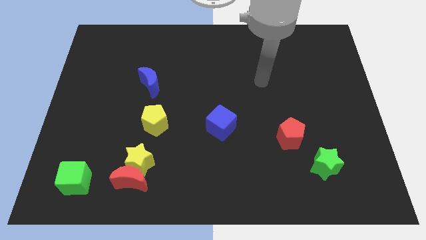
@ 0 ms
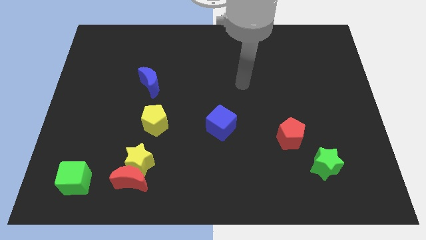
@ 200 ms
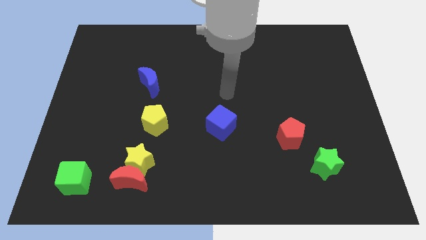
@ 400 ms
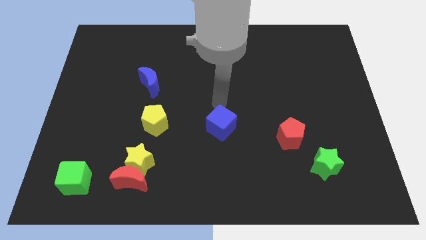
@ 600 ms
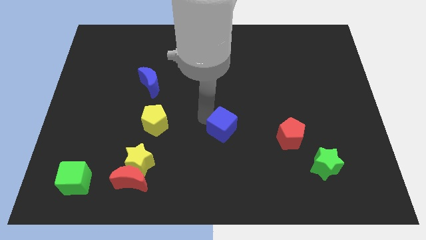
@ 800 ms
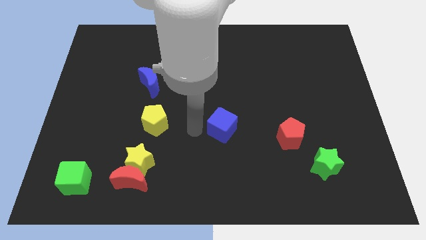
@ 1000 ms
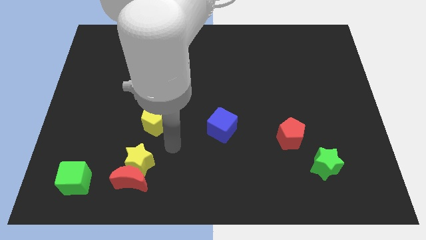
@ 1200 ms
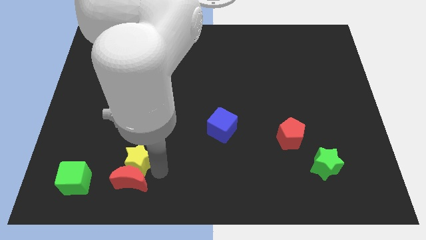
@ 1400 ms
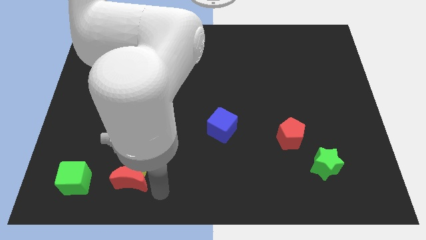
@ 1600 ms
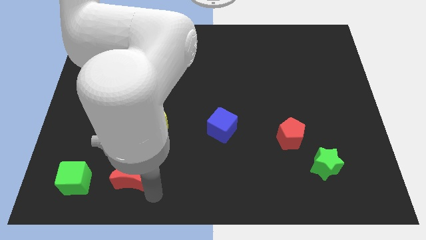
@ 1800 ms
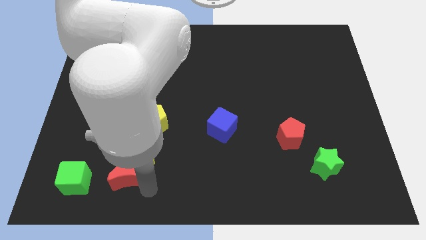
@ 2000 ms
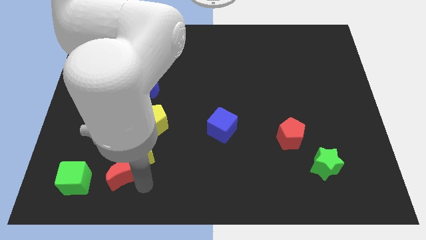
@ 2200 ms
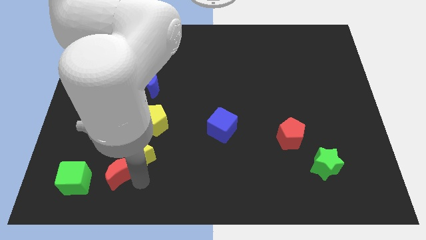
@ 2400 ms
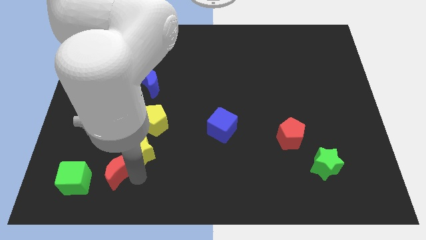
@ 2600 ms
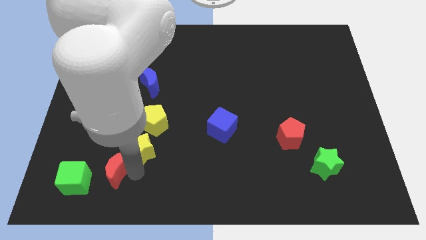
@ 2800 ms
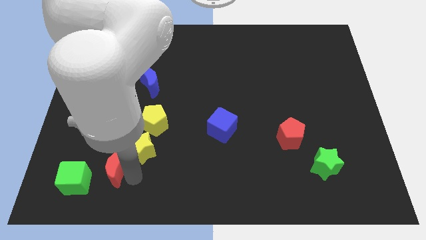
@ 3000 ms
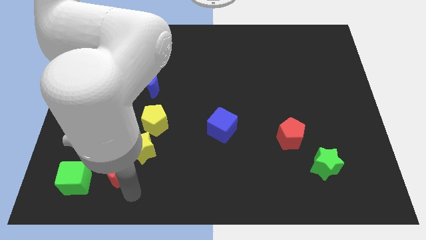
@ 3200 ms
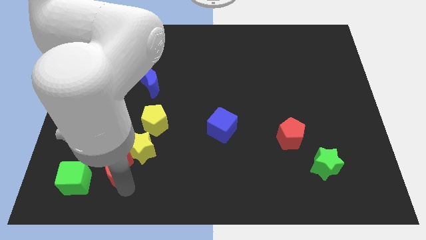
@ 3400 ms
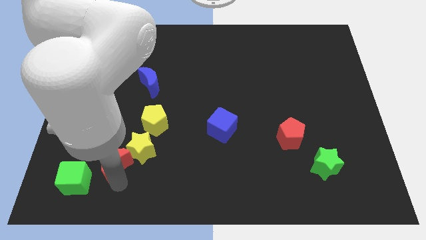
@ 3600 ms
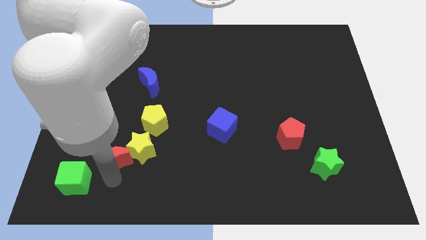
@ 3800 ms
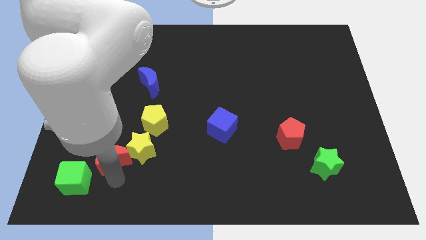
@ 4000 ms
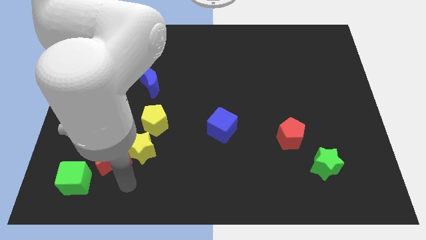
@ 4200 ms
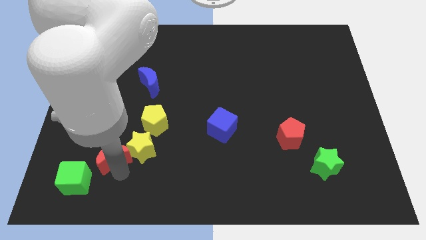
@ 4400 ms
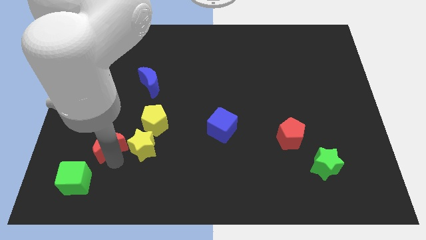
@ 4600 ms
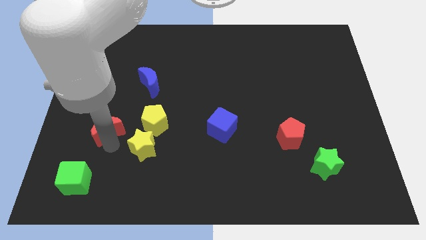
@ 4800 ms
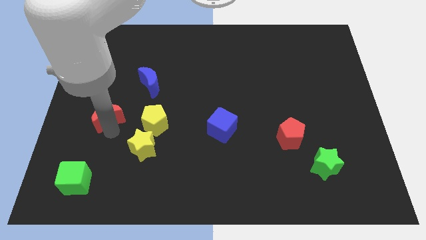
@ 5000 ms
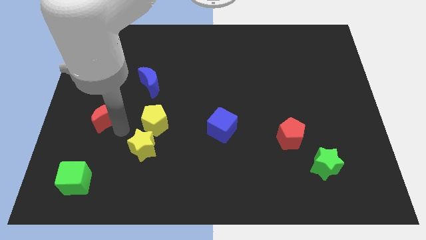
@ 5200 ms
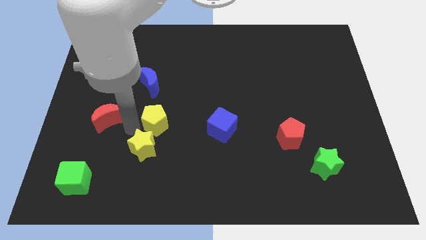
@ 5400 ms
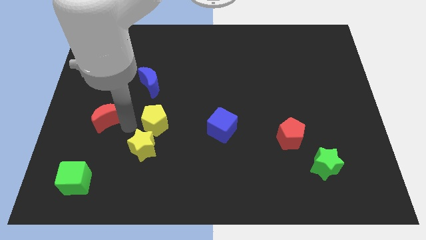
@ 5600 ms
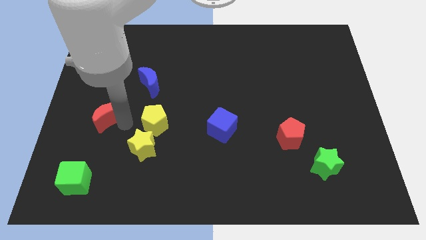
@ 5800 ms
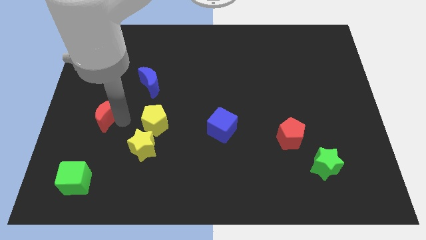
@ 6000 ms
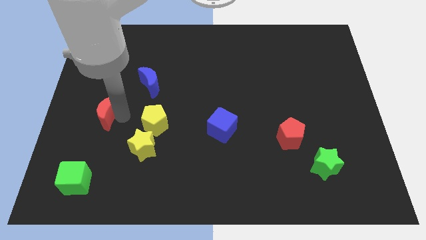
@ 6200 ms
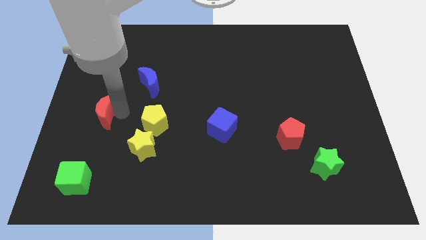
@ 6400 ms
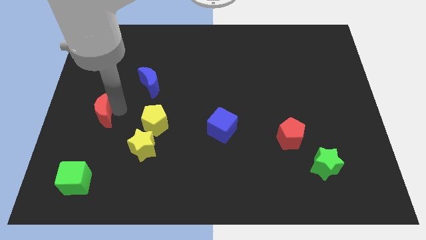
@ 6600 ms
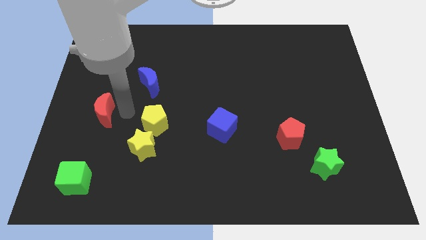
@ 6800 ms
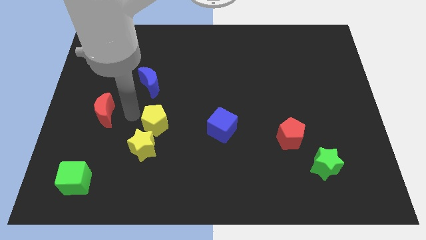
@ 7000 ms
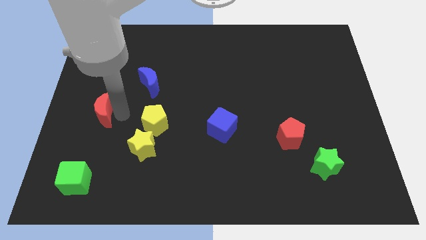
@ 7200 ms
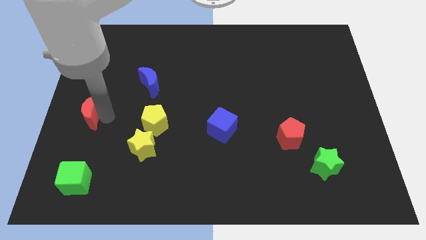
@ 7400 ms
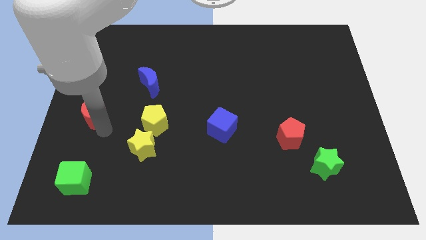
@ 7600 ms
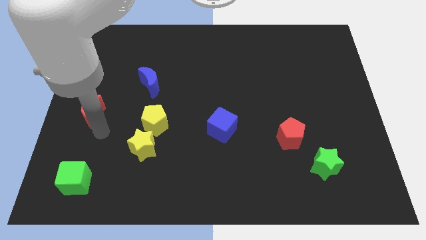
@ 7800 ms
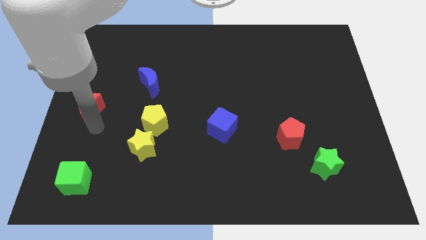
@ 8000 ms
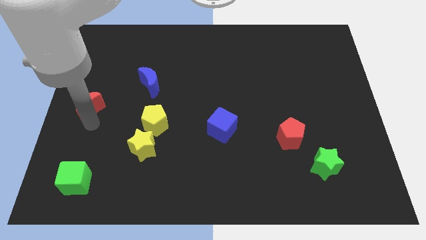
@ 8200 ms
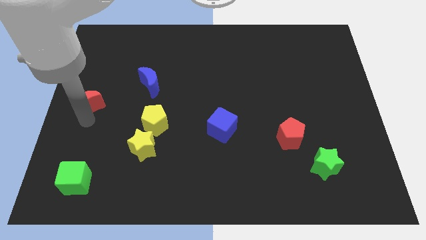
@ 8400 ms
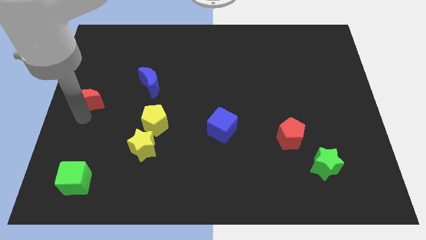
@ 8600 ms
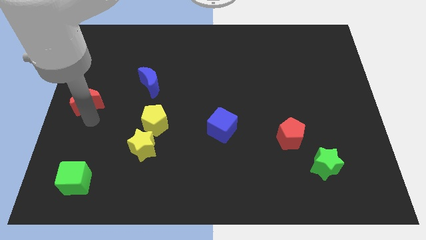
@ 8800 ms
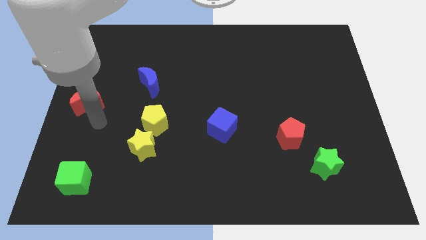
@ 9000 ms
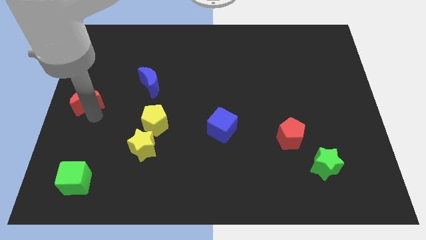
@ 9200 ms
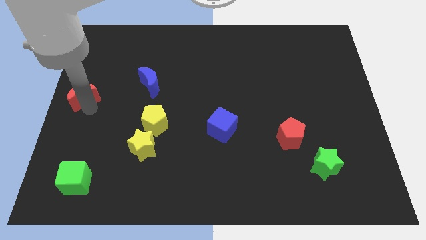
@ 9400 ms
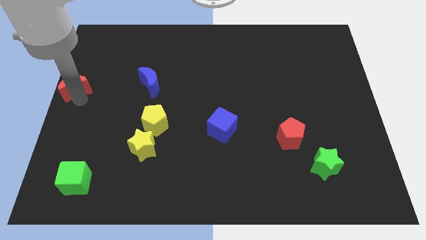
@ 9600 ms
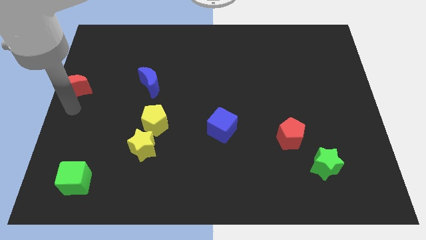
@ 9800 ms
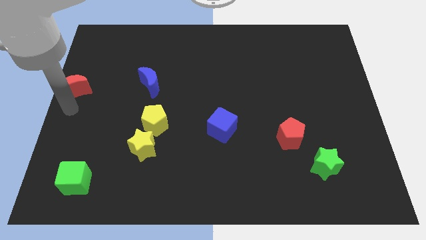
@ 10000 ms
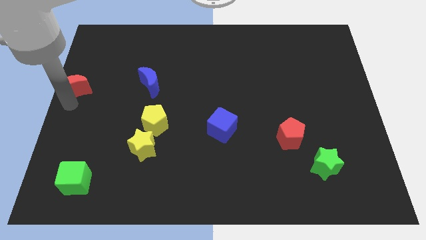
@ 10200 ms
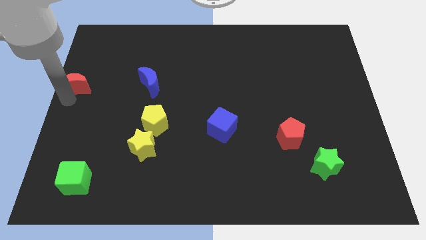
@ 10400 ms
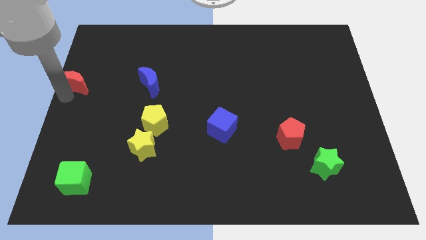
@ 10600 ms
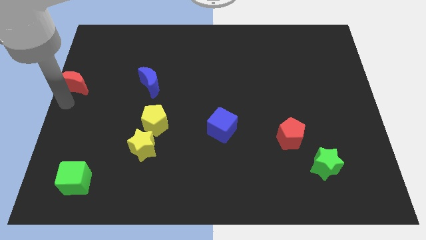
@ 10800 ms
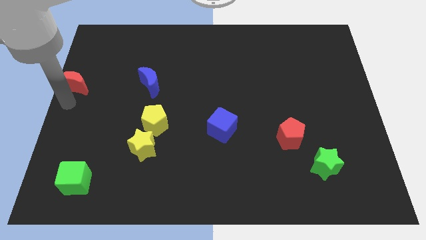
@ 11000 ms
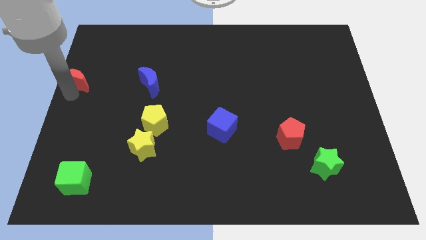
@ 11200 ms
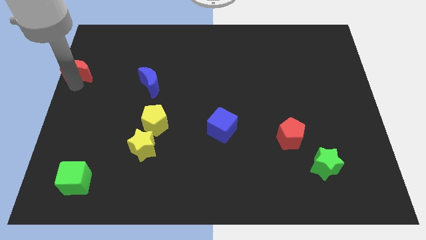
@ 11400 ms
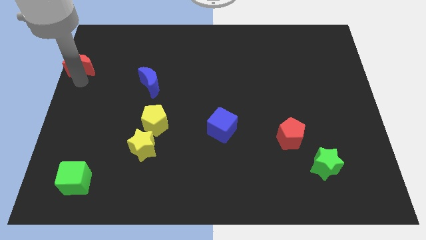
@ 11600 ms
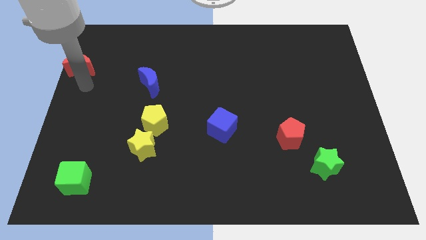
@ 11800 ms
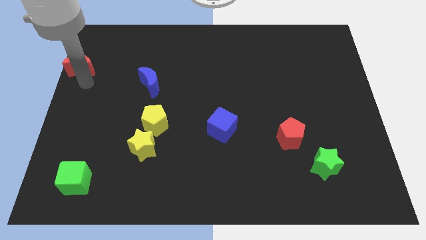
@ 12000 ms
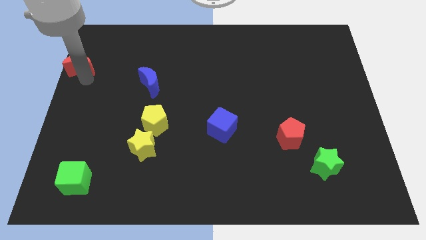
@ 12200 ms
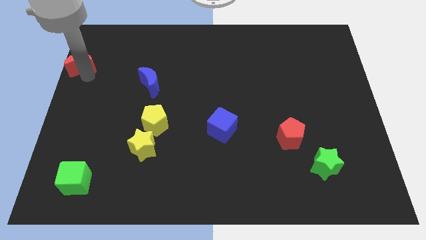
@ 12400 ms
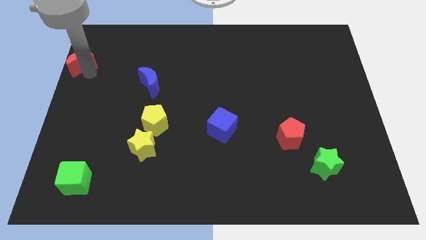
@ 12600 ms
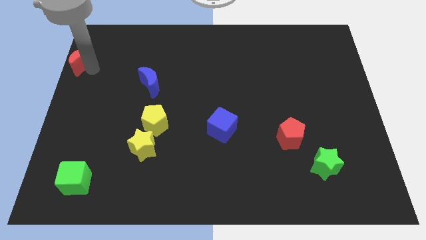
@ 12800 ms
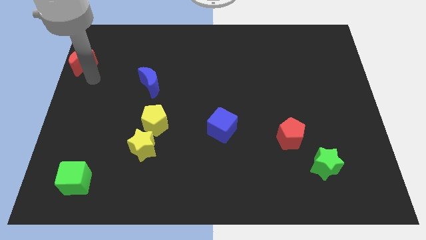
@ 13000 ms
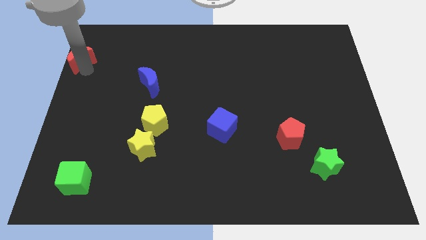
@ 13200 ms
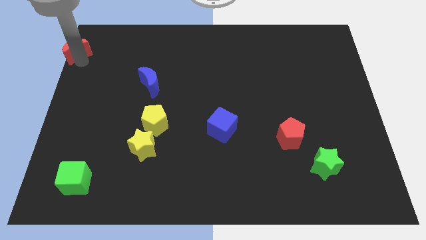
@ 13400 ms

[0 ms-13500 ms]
slide the red moon to the top left corner
